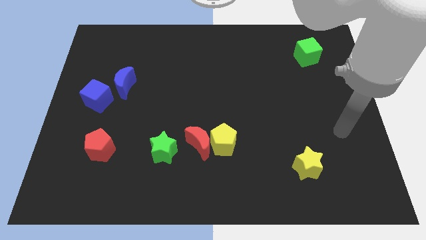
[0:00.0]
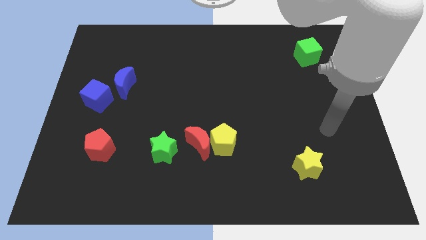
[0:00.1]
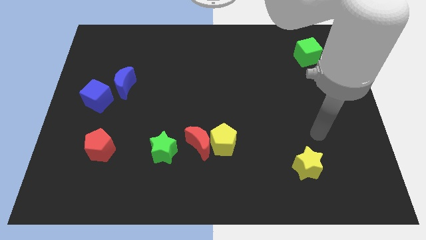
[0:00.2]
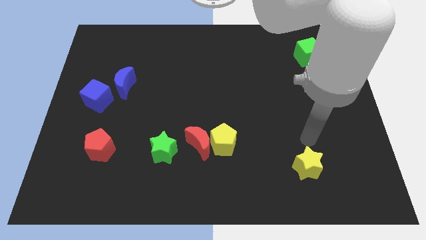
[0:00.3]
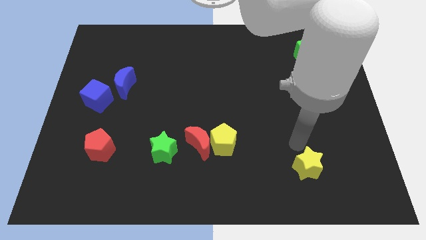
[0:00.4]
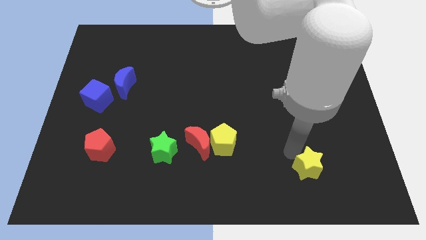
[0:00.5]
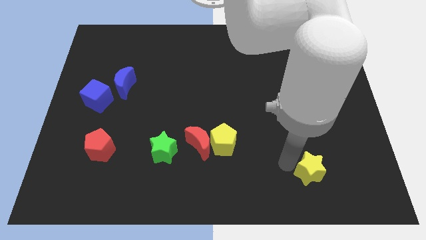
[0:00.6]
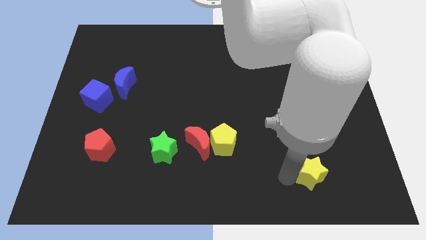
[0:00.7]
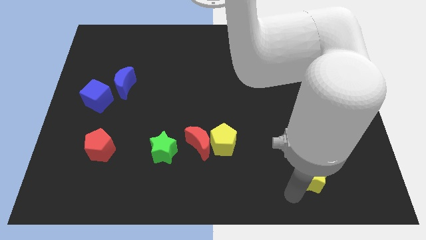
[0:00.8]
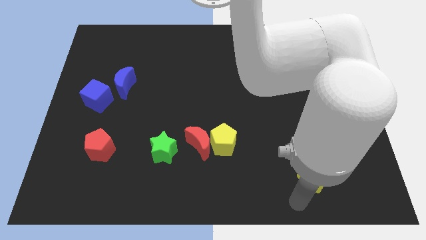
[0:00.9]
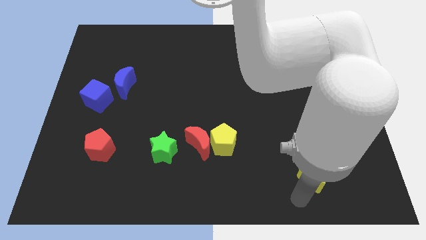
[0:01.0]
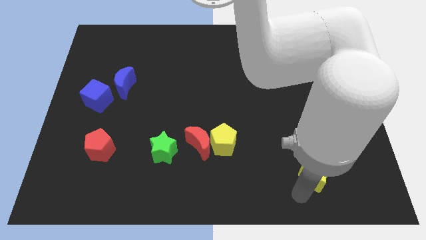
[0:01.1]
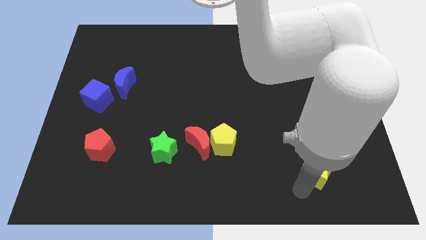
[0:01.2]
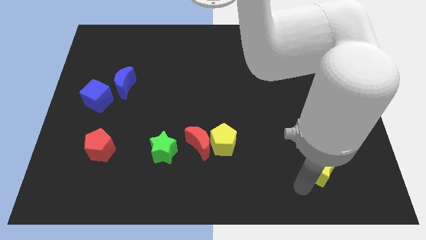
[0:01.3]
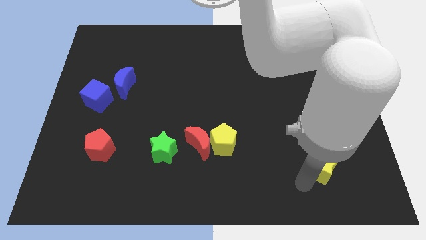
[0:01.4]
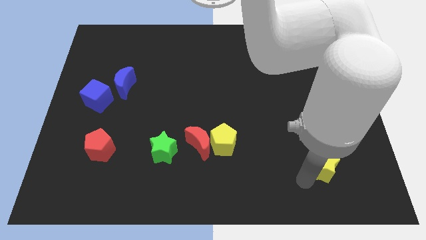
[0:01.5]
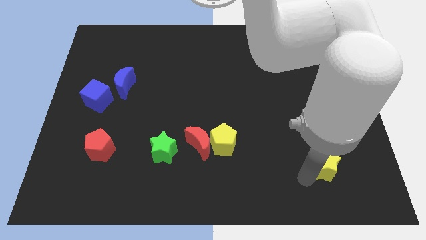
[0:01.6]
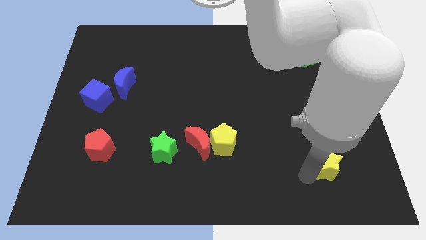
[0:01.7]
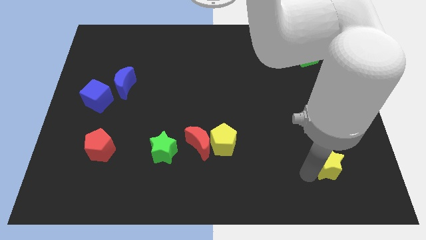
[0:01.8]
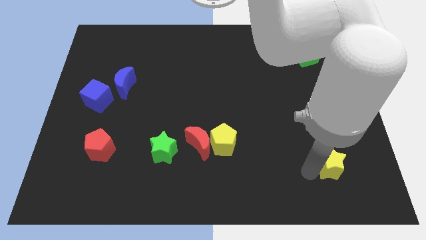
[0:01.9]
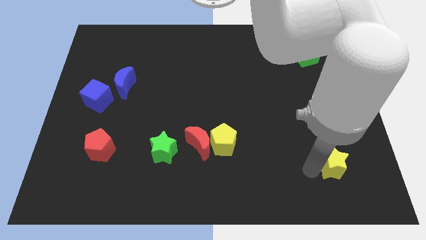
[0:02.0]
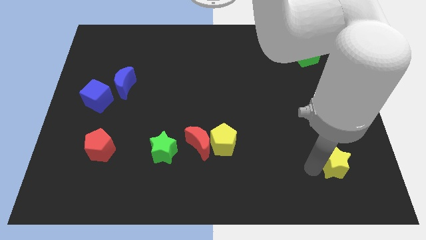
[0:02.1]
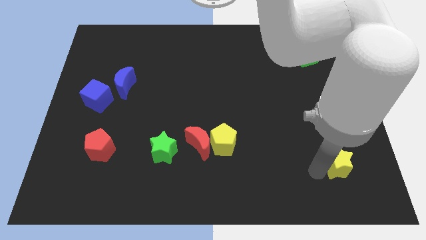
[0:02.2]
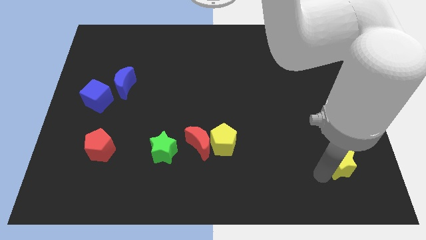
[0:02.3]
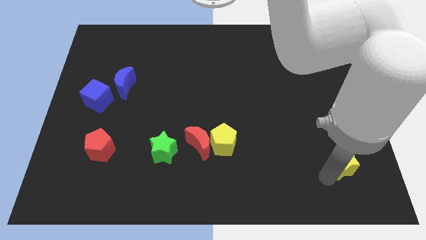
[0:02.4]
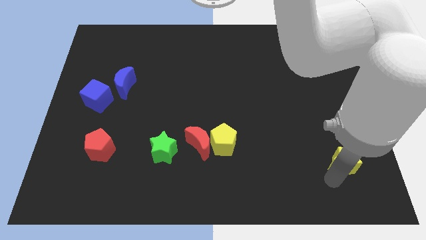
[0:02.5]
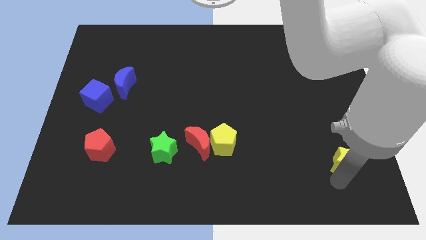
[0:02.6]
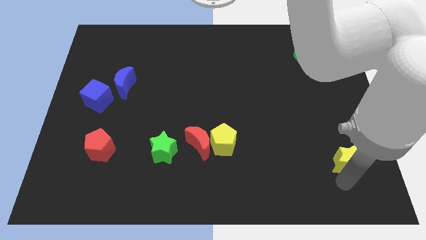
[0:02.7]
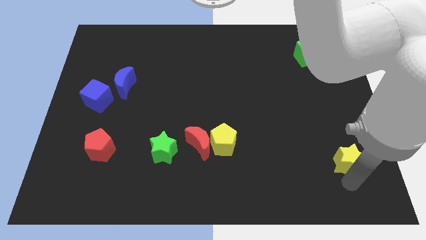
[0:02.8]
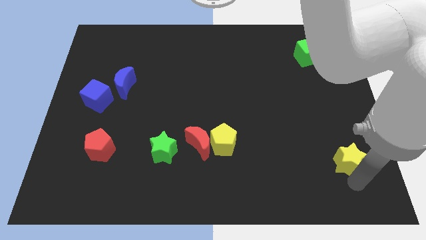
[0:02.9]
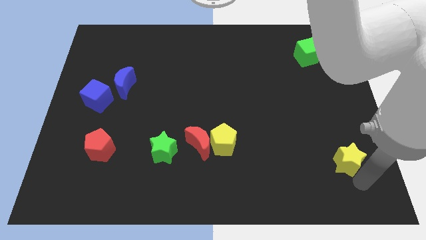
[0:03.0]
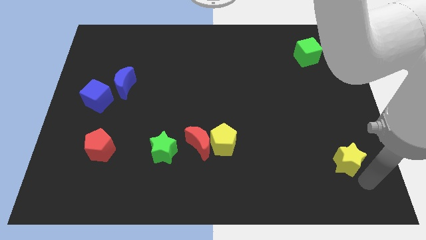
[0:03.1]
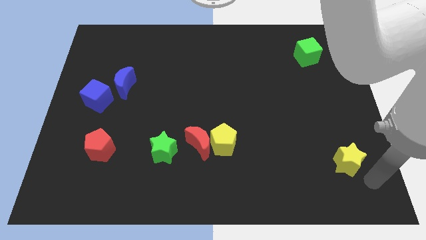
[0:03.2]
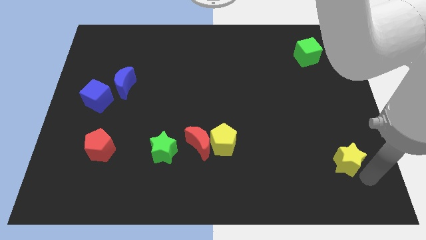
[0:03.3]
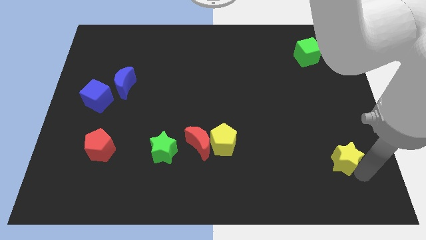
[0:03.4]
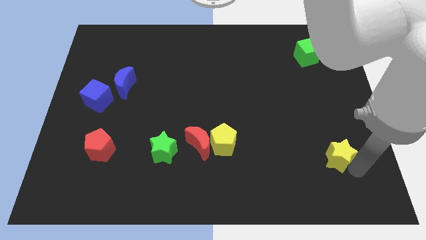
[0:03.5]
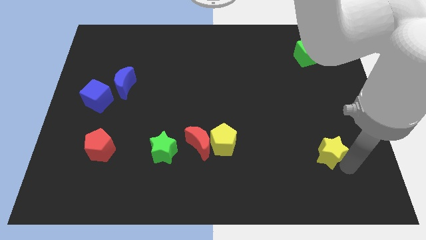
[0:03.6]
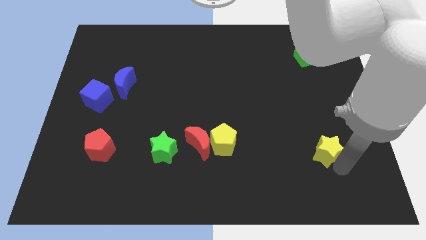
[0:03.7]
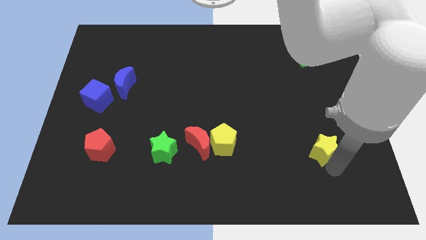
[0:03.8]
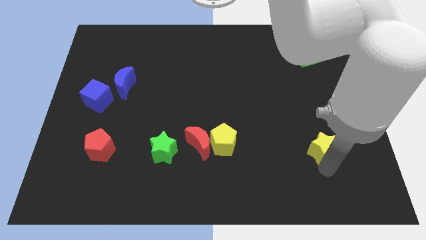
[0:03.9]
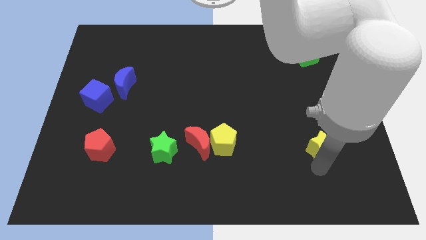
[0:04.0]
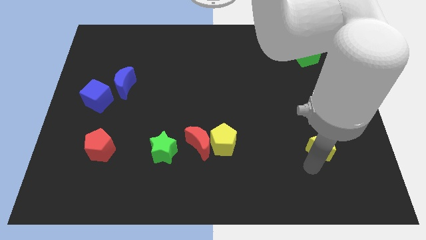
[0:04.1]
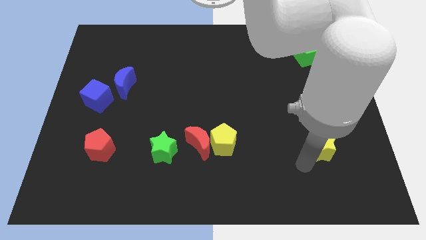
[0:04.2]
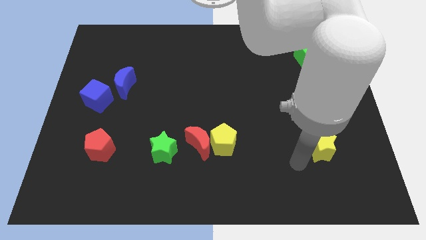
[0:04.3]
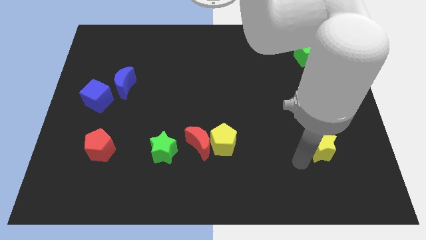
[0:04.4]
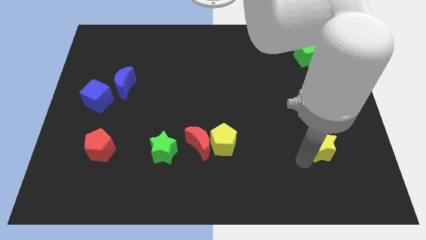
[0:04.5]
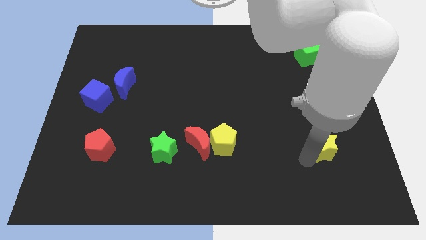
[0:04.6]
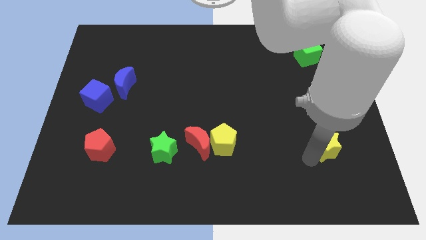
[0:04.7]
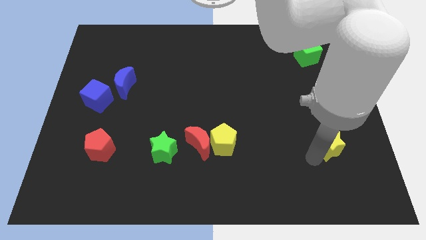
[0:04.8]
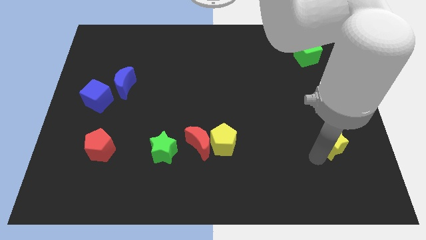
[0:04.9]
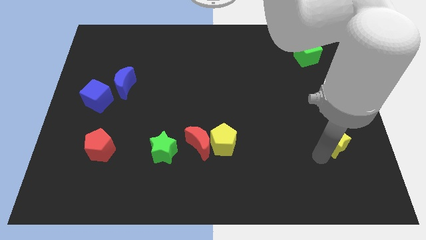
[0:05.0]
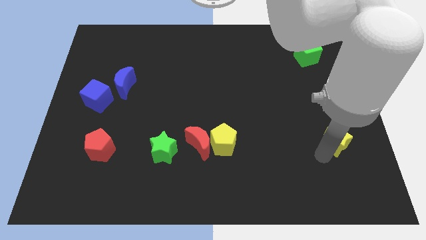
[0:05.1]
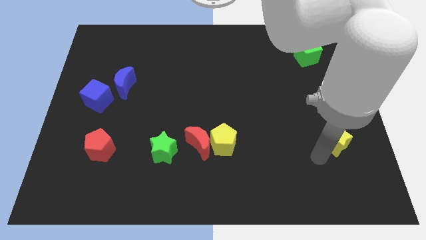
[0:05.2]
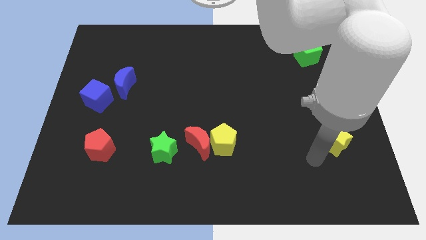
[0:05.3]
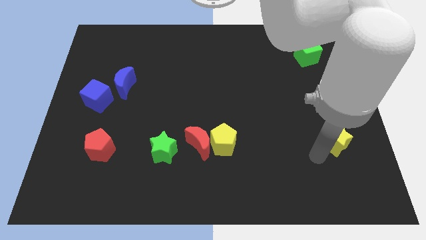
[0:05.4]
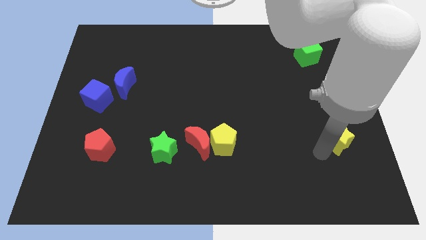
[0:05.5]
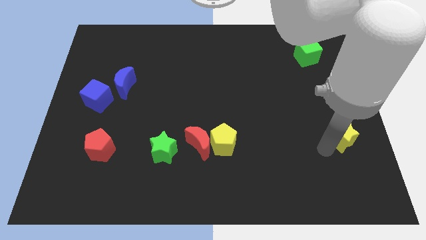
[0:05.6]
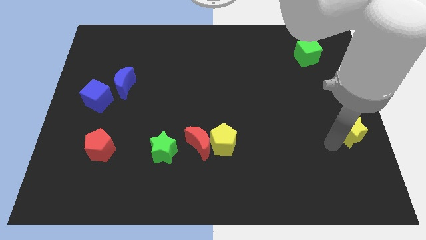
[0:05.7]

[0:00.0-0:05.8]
slide the yellow star to the right side of the board

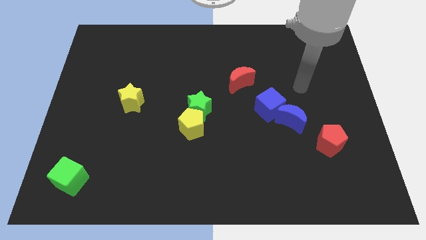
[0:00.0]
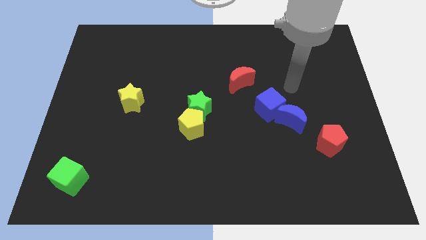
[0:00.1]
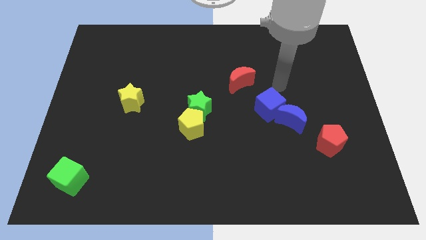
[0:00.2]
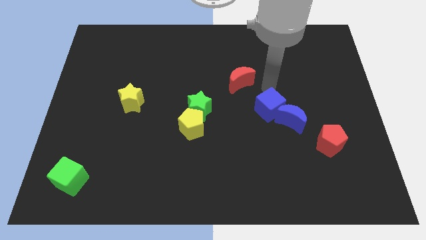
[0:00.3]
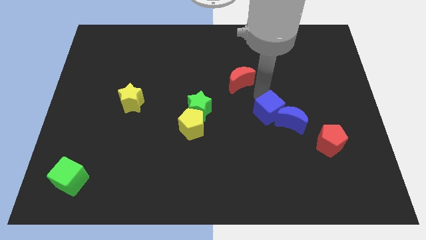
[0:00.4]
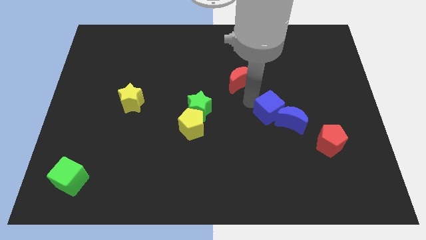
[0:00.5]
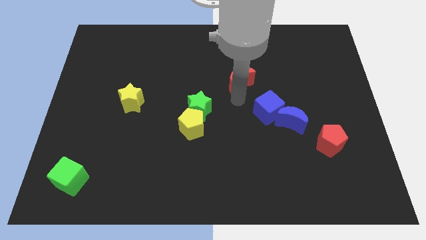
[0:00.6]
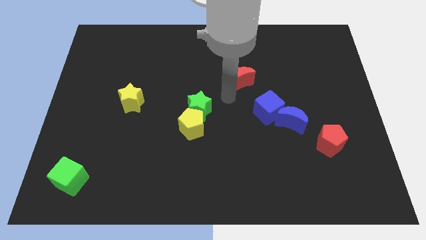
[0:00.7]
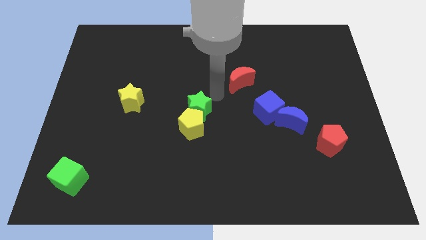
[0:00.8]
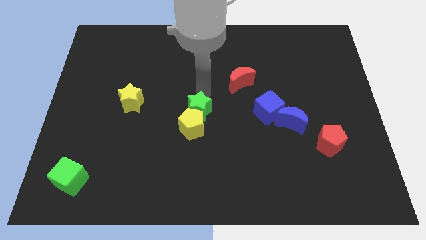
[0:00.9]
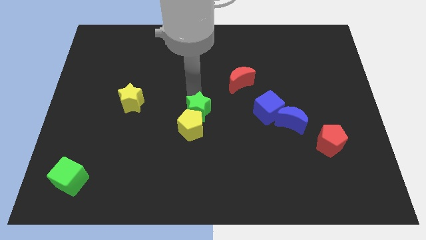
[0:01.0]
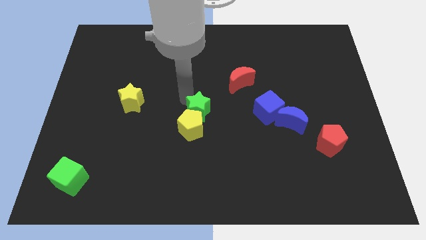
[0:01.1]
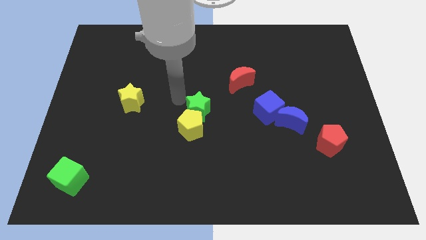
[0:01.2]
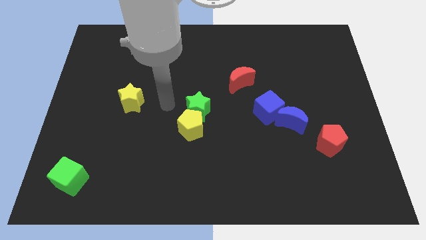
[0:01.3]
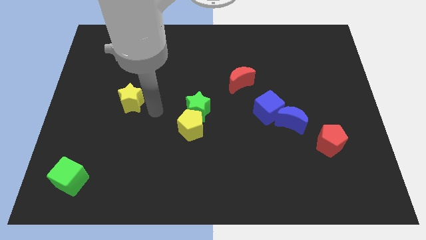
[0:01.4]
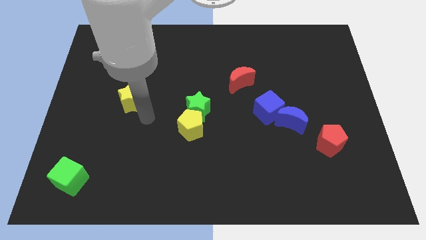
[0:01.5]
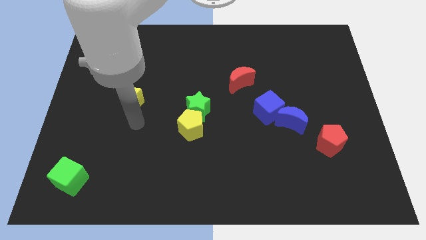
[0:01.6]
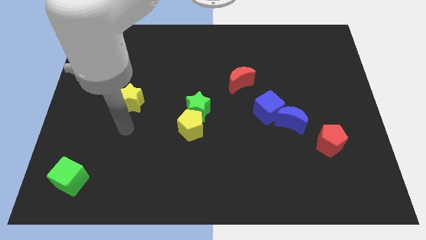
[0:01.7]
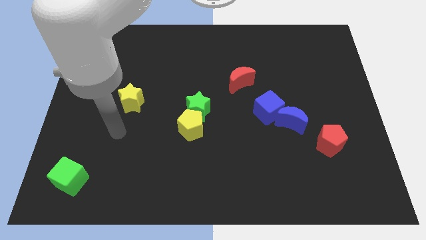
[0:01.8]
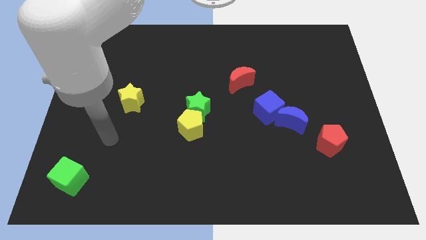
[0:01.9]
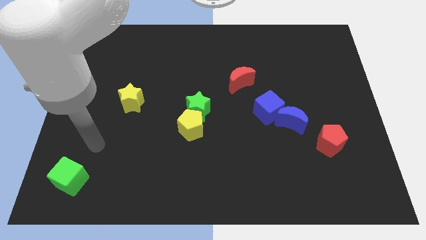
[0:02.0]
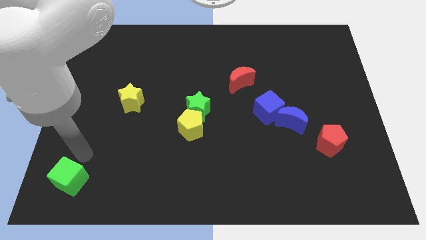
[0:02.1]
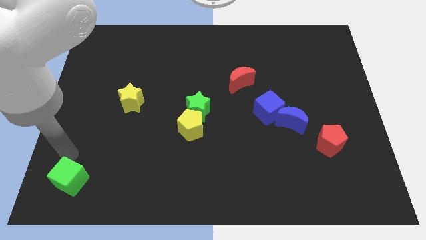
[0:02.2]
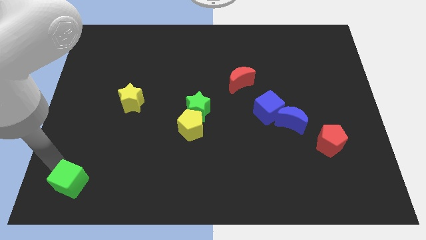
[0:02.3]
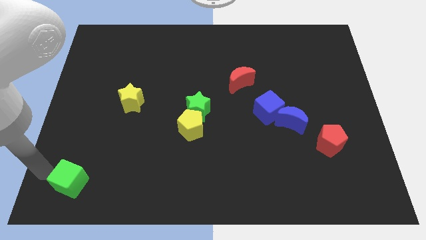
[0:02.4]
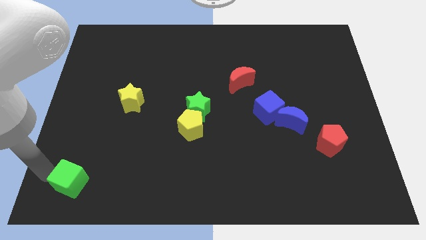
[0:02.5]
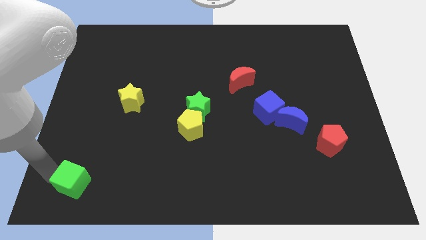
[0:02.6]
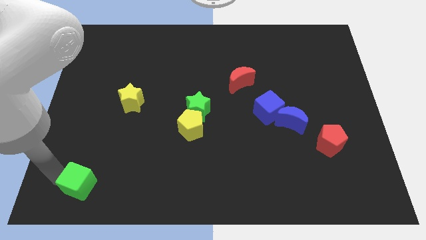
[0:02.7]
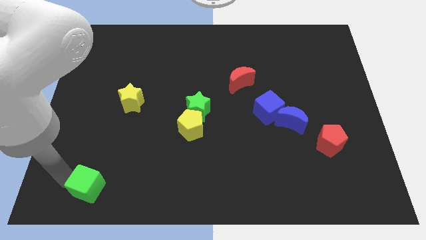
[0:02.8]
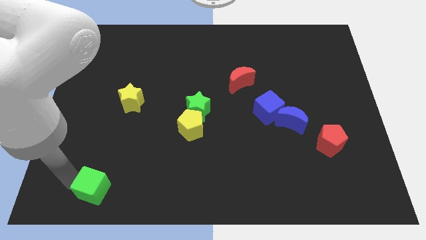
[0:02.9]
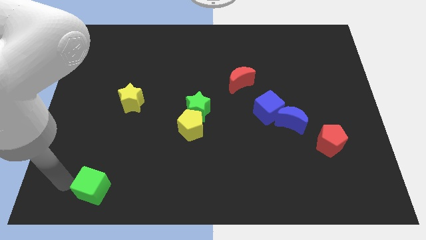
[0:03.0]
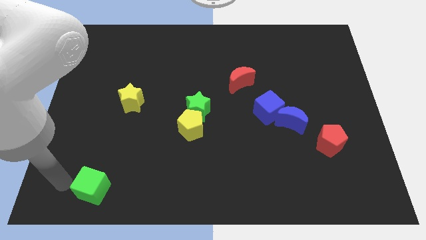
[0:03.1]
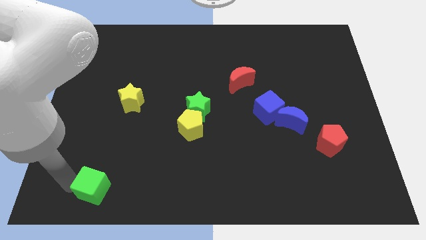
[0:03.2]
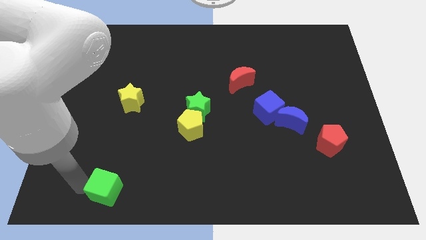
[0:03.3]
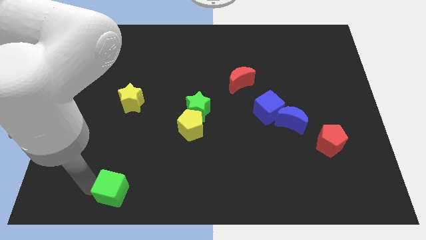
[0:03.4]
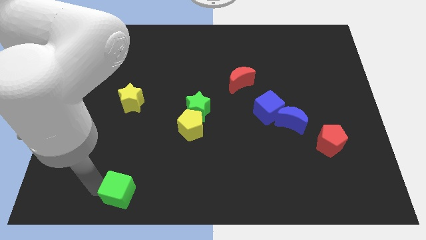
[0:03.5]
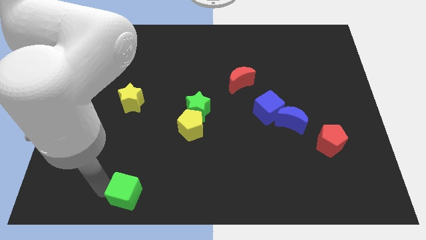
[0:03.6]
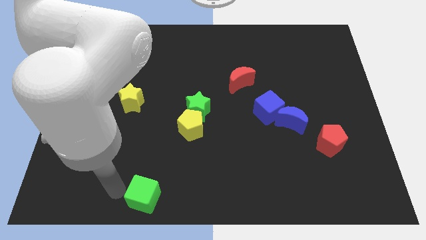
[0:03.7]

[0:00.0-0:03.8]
put the green cube to the bottom side
